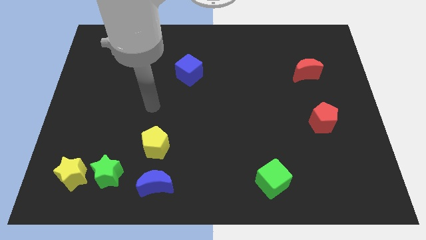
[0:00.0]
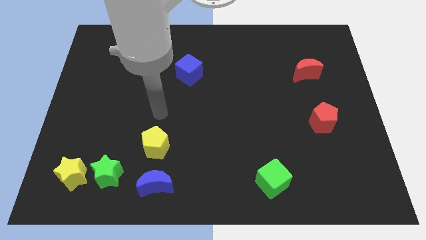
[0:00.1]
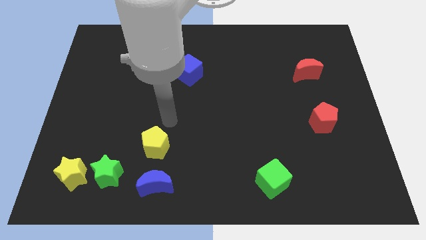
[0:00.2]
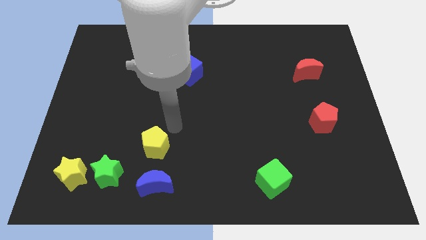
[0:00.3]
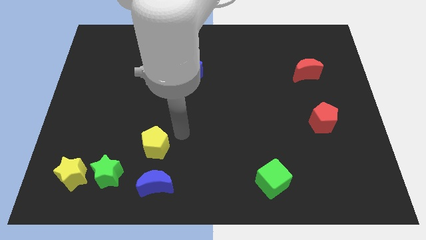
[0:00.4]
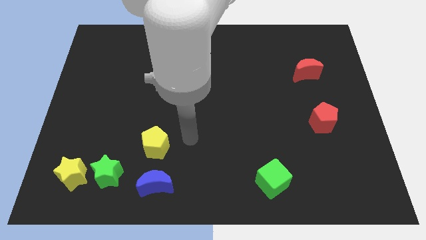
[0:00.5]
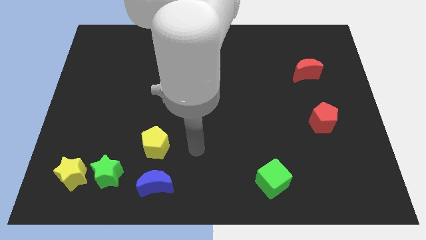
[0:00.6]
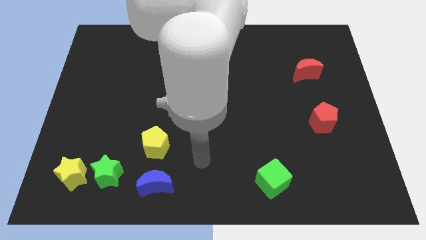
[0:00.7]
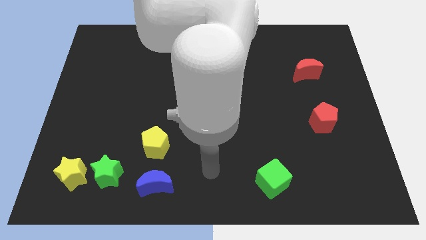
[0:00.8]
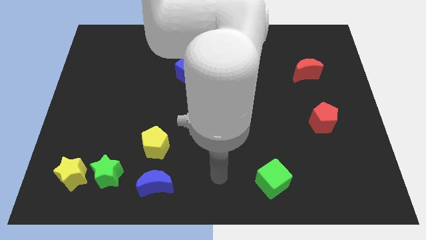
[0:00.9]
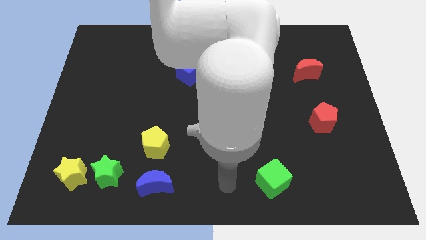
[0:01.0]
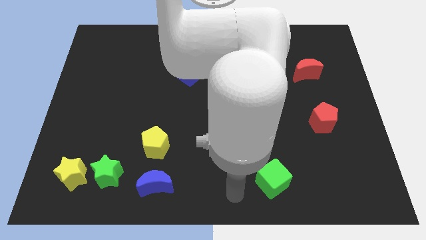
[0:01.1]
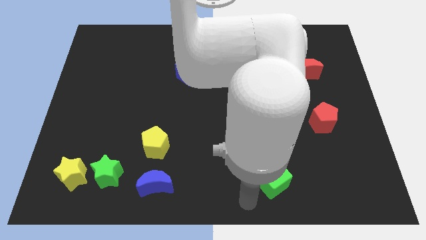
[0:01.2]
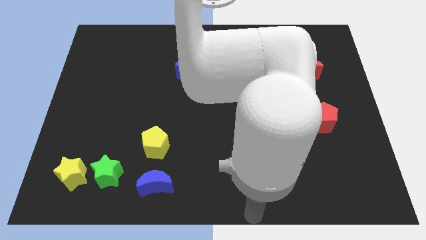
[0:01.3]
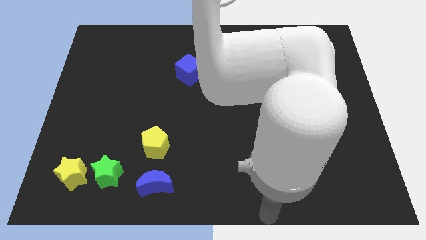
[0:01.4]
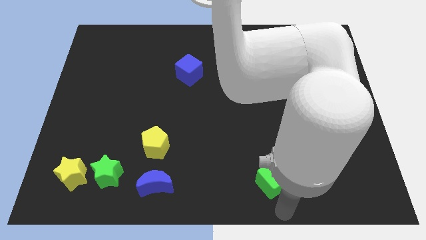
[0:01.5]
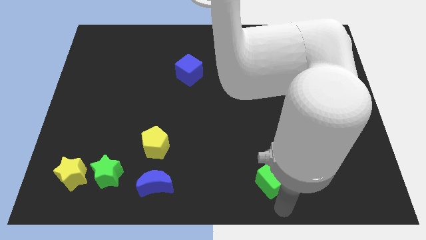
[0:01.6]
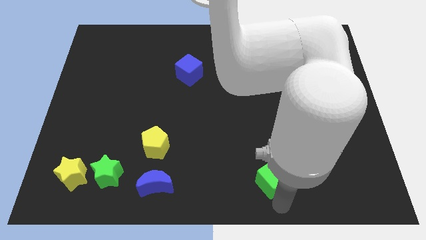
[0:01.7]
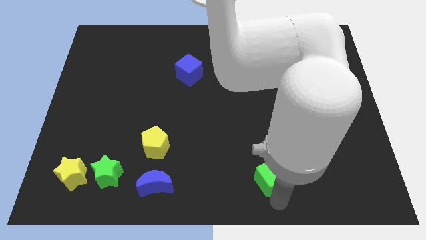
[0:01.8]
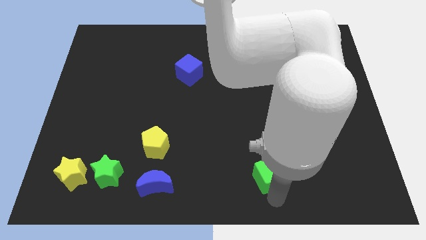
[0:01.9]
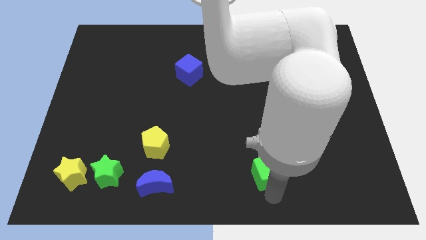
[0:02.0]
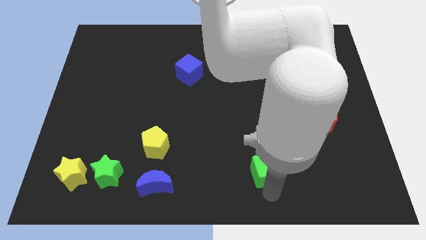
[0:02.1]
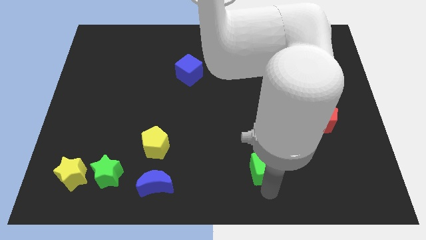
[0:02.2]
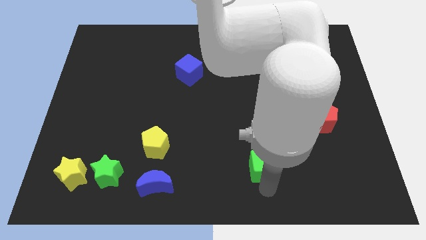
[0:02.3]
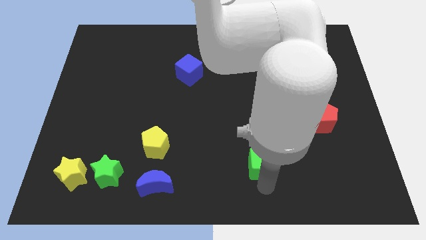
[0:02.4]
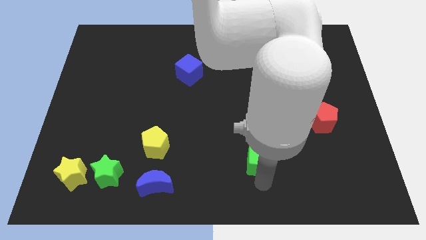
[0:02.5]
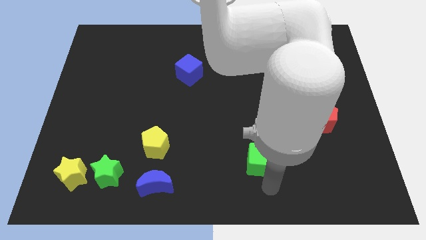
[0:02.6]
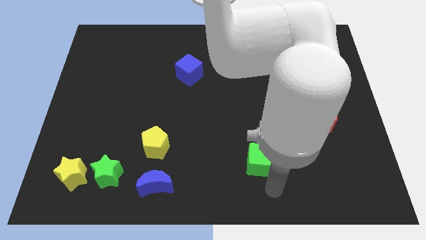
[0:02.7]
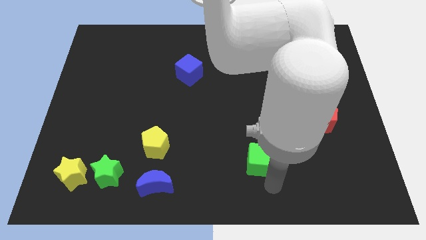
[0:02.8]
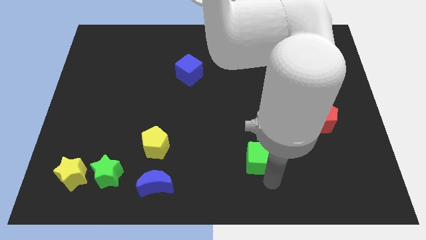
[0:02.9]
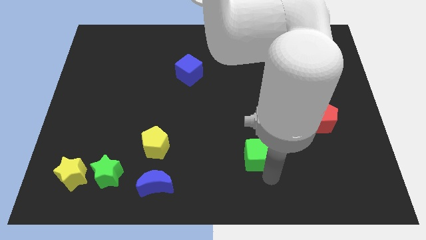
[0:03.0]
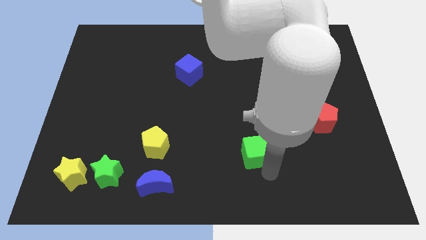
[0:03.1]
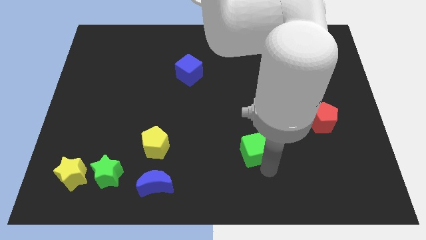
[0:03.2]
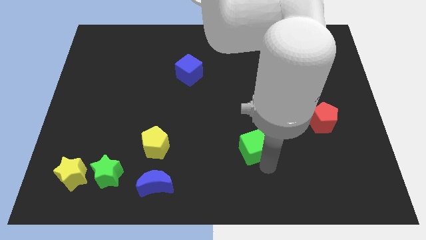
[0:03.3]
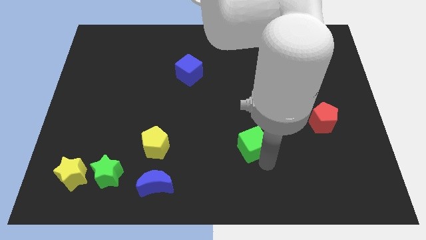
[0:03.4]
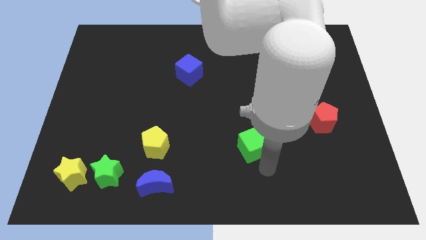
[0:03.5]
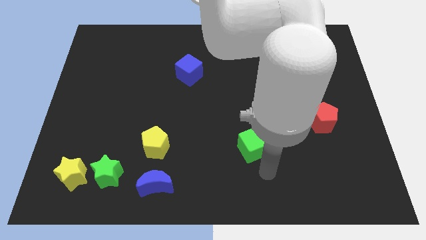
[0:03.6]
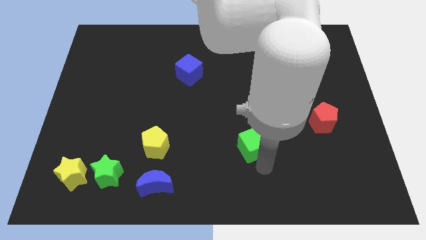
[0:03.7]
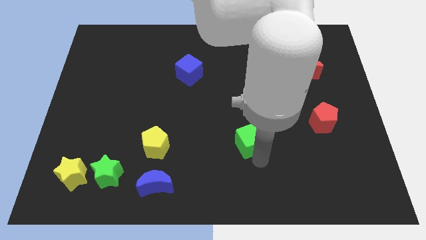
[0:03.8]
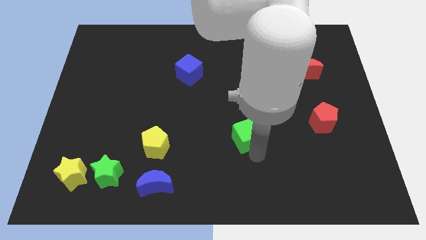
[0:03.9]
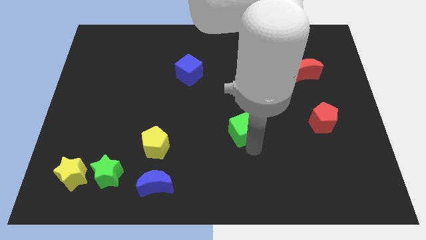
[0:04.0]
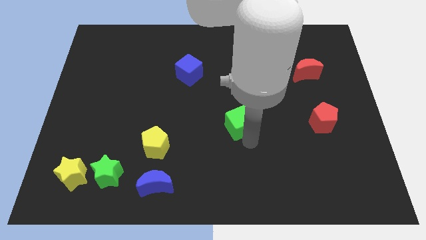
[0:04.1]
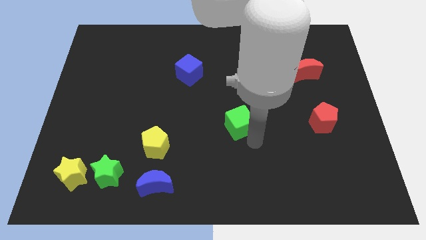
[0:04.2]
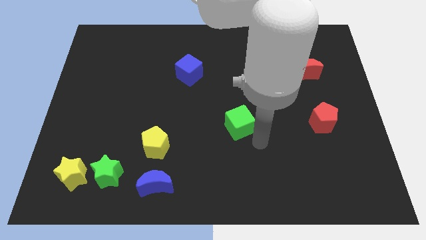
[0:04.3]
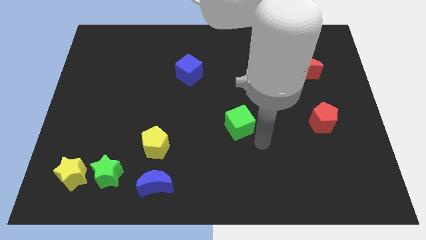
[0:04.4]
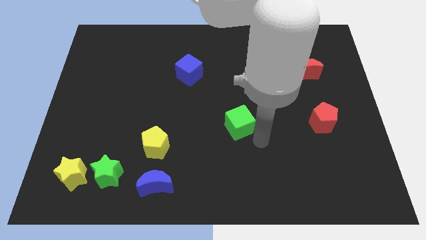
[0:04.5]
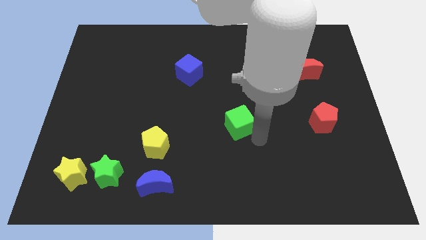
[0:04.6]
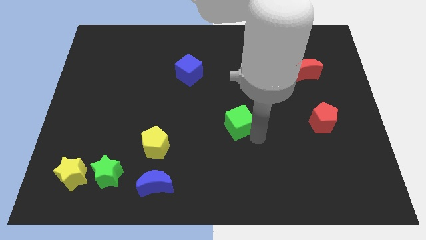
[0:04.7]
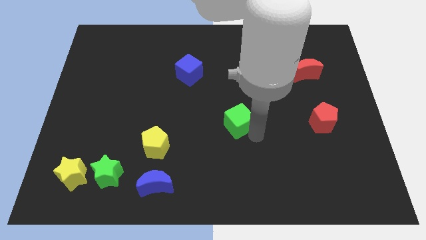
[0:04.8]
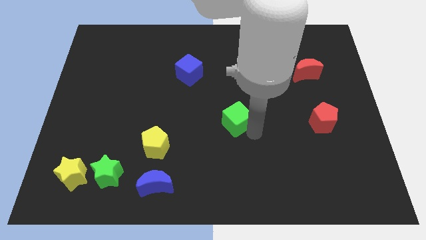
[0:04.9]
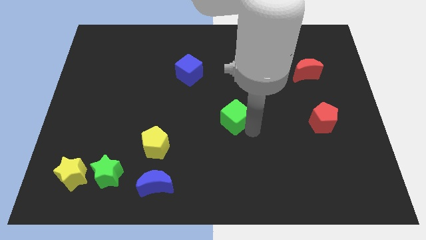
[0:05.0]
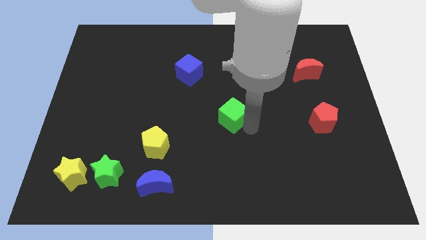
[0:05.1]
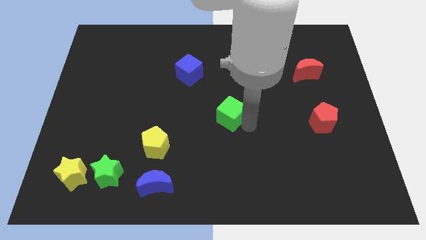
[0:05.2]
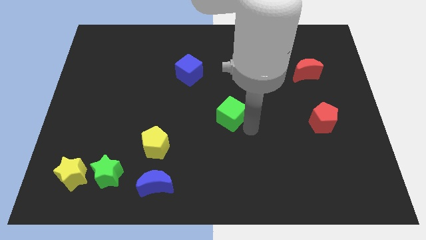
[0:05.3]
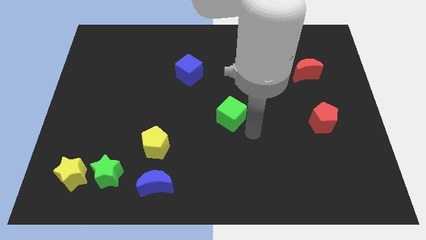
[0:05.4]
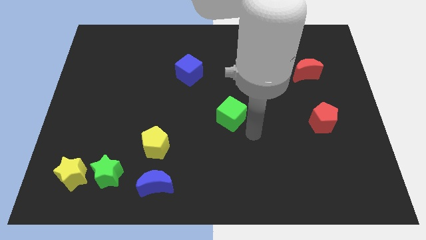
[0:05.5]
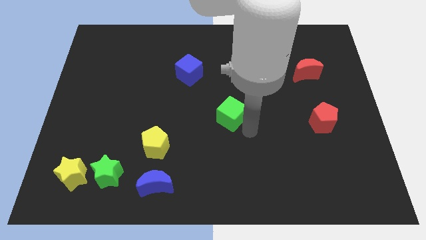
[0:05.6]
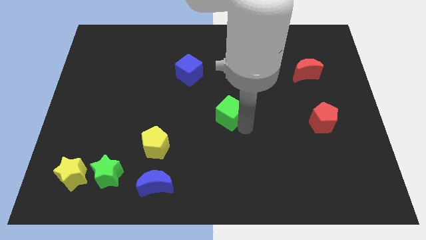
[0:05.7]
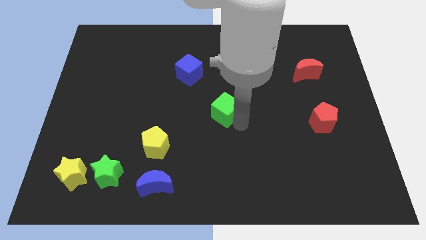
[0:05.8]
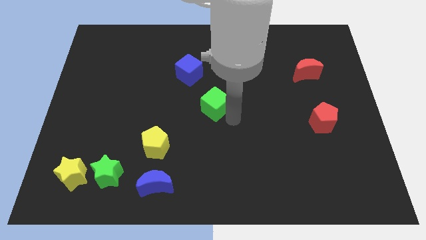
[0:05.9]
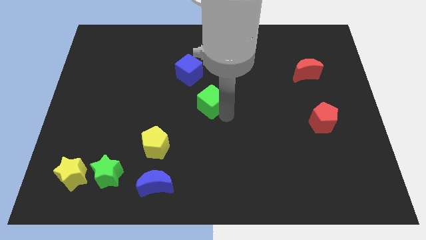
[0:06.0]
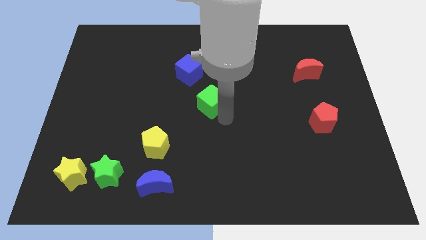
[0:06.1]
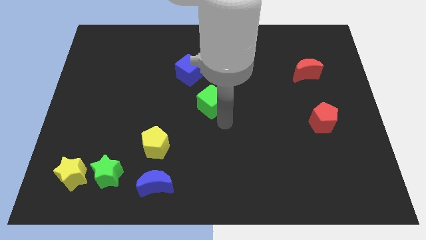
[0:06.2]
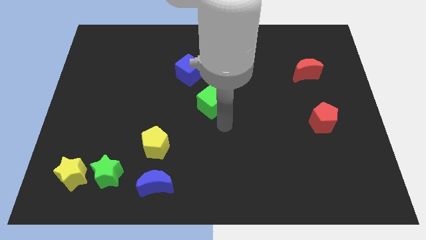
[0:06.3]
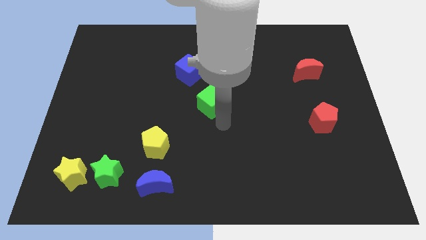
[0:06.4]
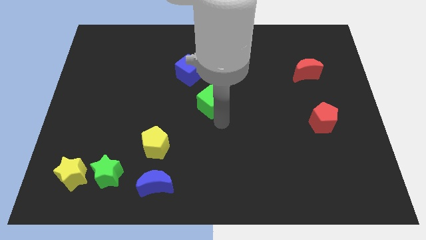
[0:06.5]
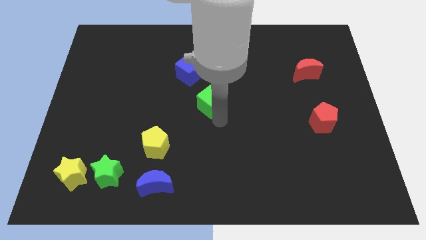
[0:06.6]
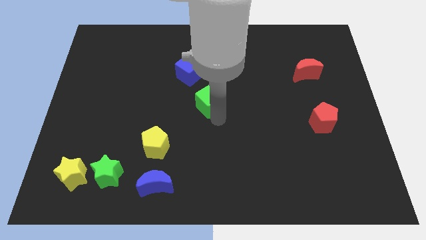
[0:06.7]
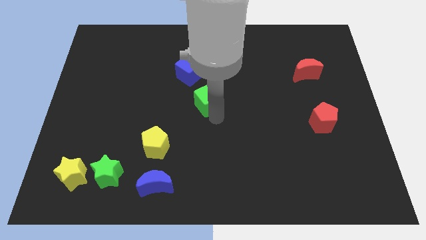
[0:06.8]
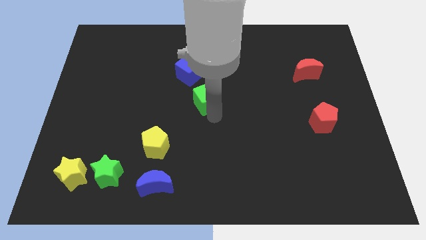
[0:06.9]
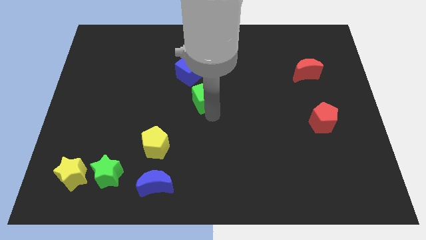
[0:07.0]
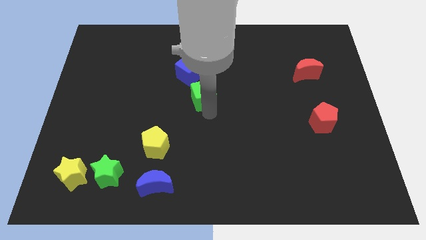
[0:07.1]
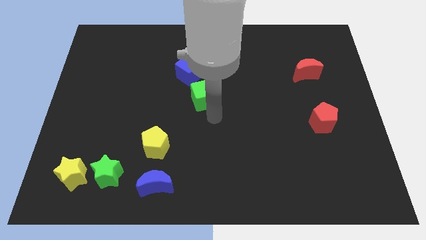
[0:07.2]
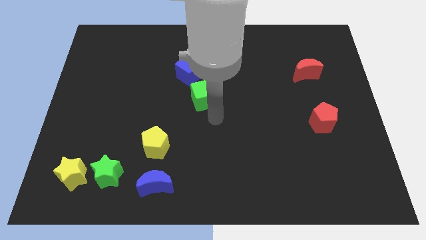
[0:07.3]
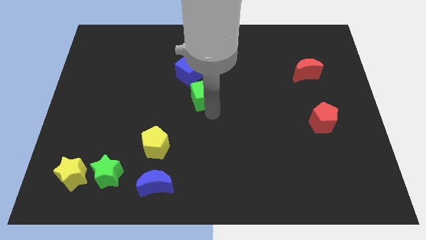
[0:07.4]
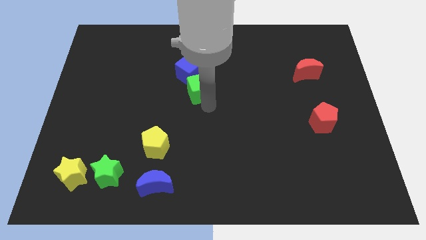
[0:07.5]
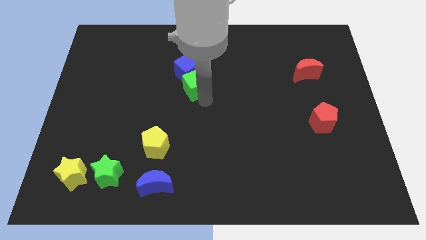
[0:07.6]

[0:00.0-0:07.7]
put the green cube to the blue cube
